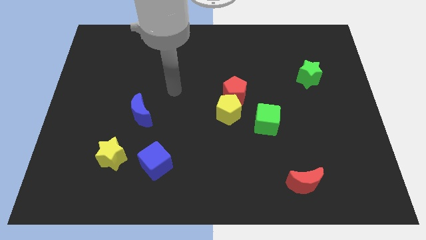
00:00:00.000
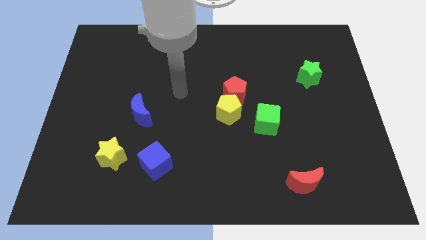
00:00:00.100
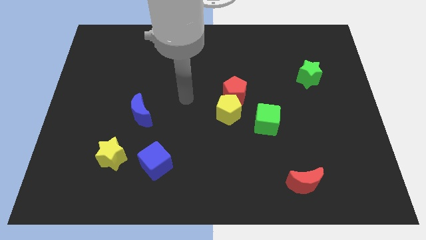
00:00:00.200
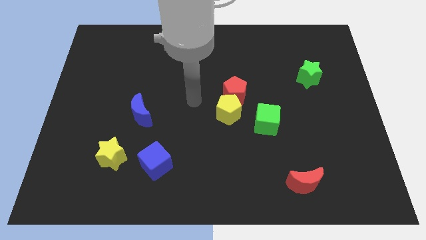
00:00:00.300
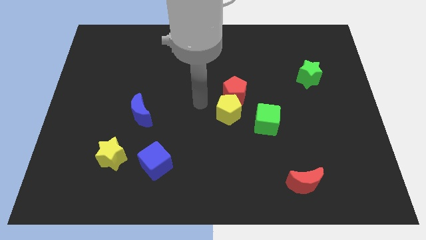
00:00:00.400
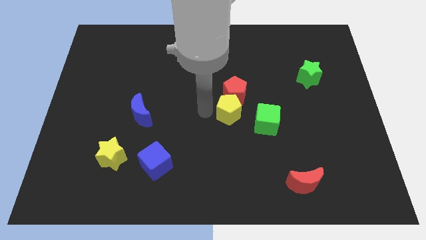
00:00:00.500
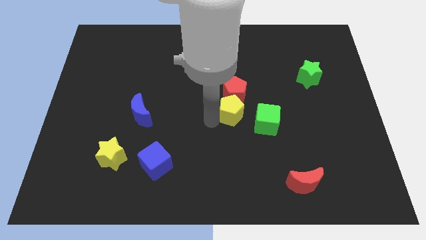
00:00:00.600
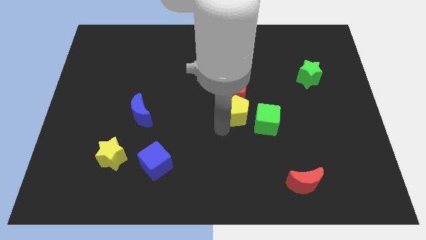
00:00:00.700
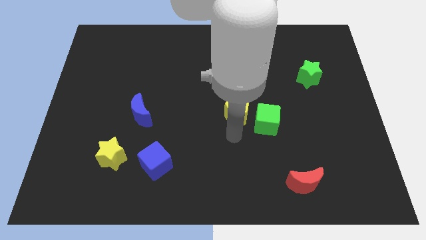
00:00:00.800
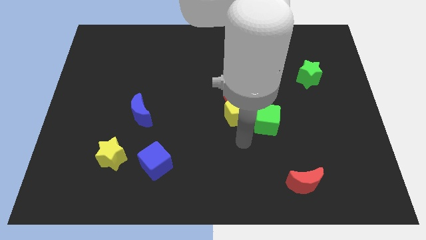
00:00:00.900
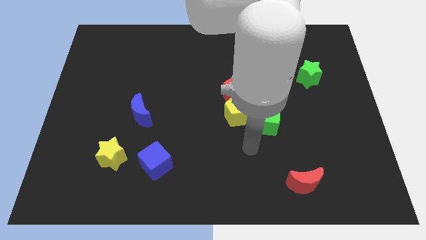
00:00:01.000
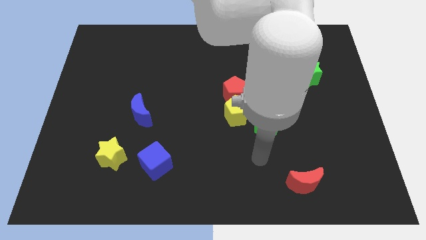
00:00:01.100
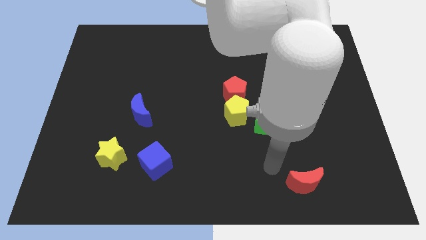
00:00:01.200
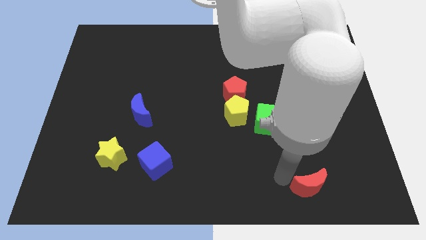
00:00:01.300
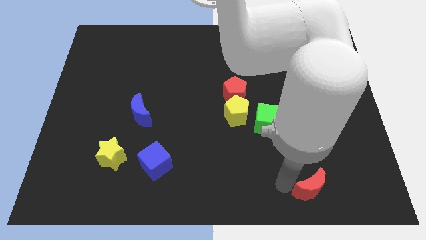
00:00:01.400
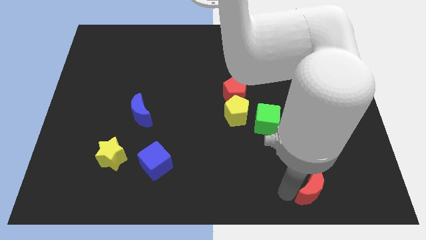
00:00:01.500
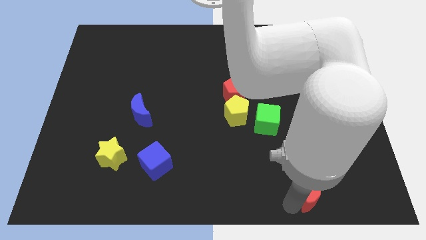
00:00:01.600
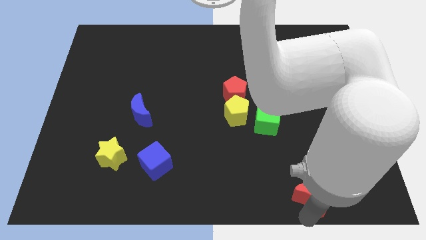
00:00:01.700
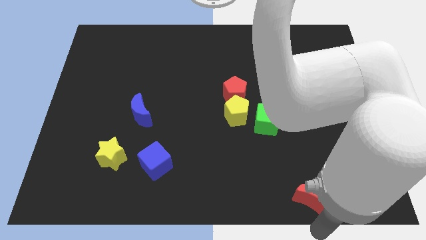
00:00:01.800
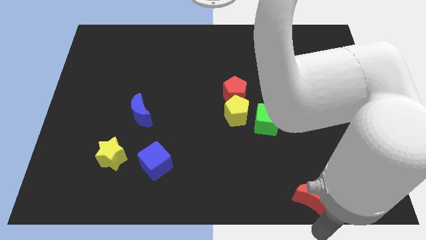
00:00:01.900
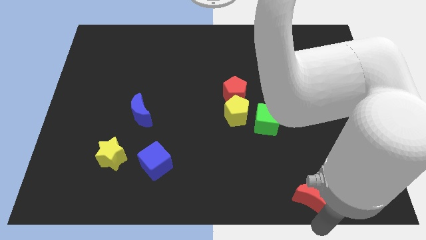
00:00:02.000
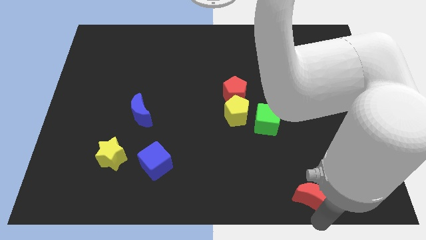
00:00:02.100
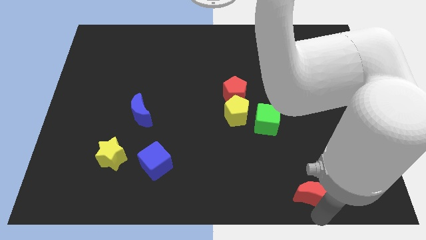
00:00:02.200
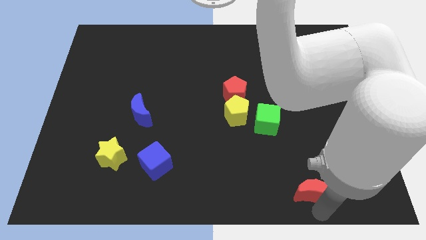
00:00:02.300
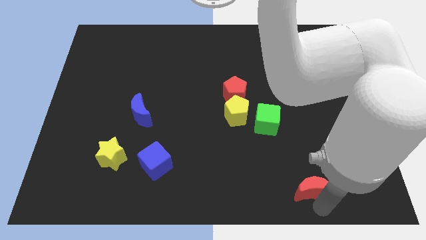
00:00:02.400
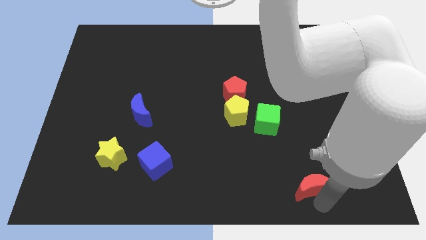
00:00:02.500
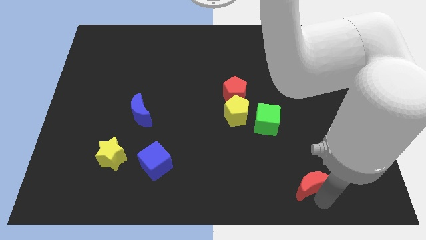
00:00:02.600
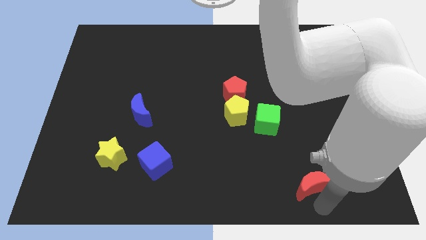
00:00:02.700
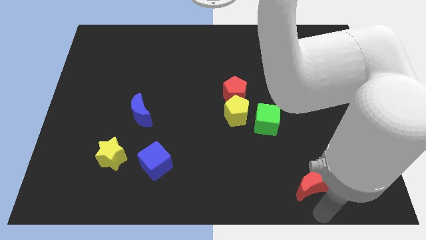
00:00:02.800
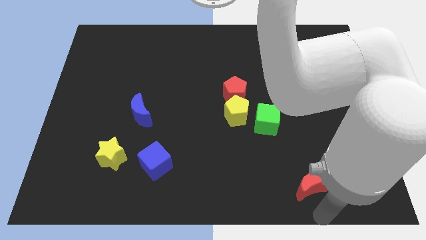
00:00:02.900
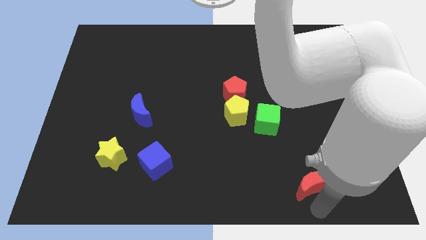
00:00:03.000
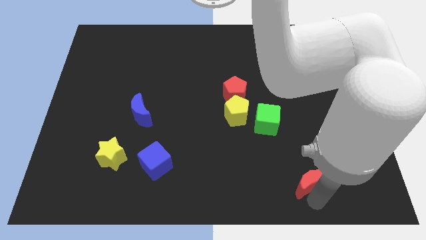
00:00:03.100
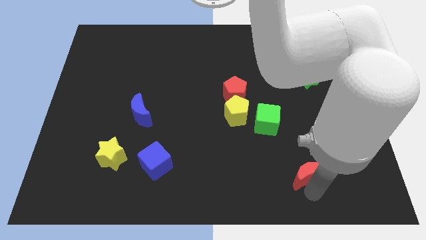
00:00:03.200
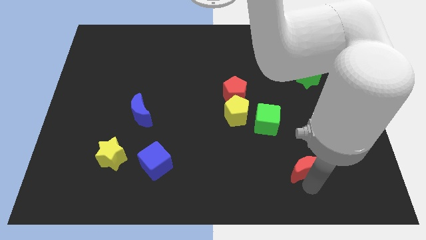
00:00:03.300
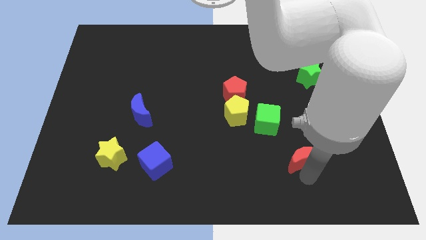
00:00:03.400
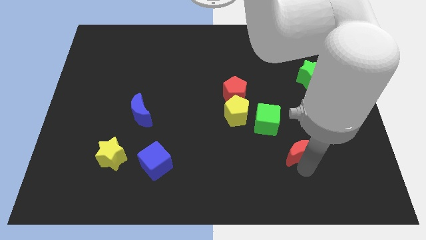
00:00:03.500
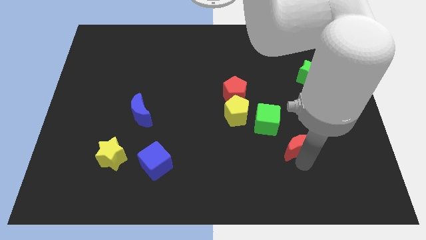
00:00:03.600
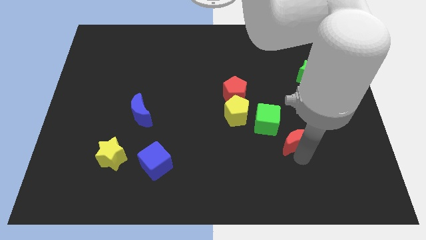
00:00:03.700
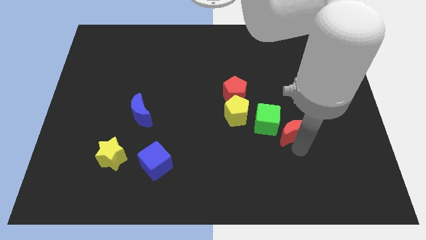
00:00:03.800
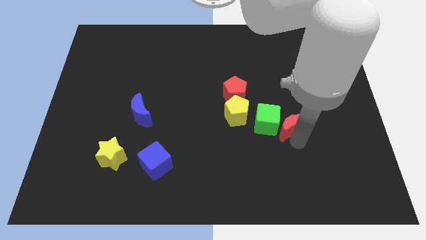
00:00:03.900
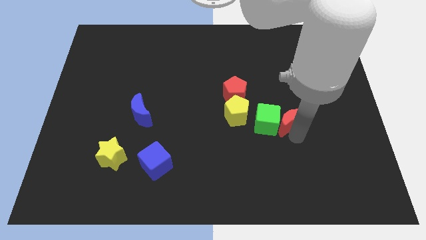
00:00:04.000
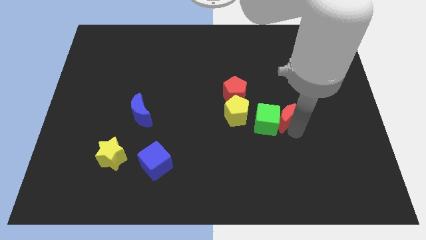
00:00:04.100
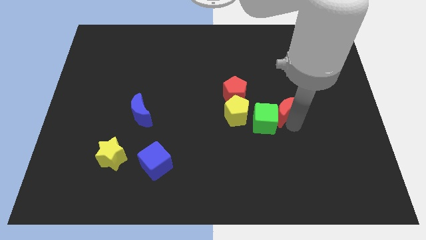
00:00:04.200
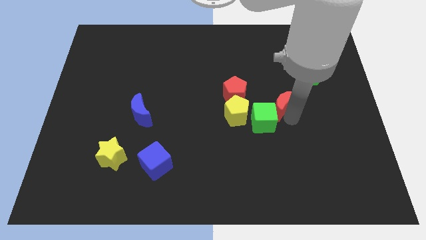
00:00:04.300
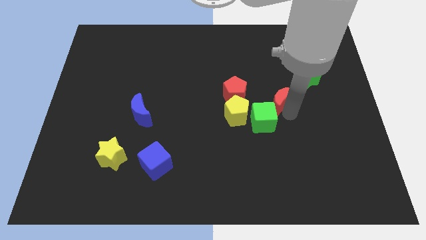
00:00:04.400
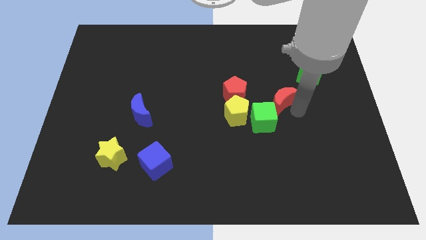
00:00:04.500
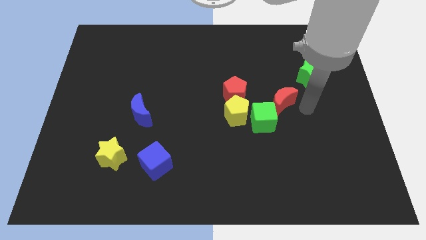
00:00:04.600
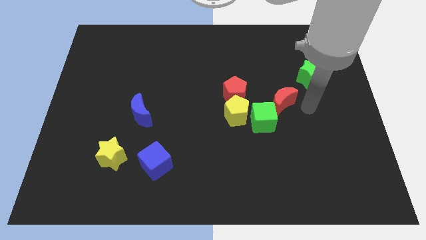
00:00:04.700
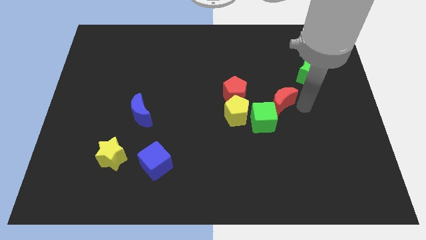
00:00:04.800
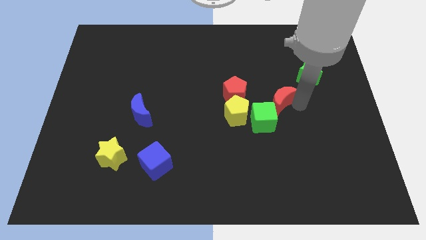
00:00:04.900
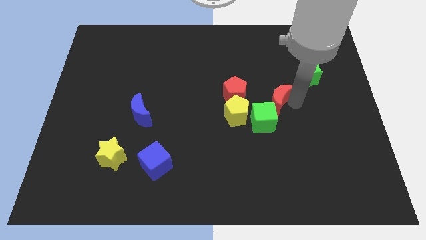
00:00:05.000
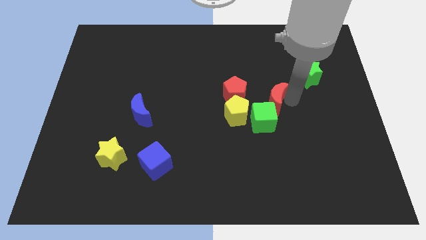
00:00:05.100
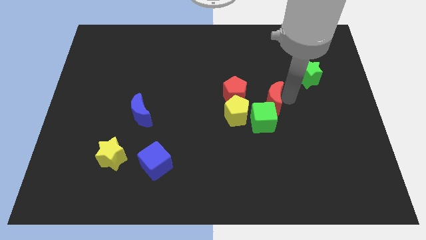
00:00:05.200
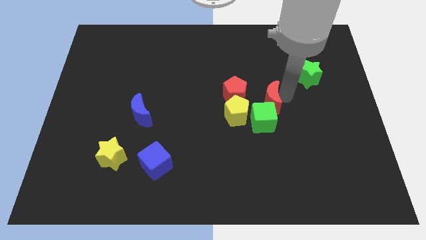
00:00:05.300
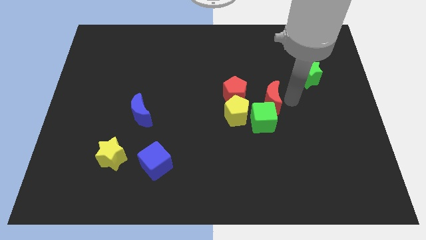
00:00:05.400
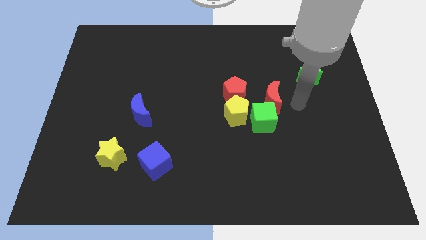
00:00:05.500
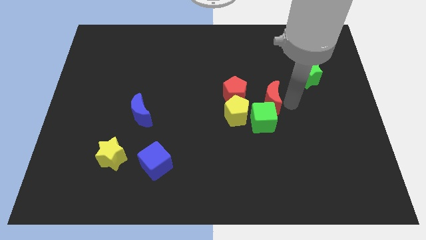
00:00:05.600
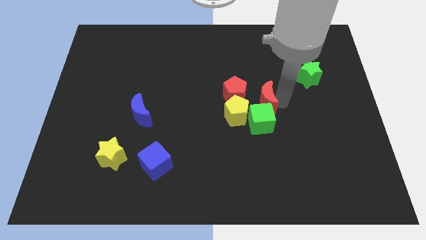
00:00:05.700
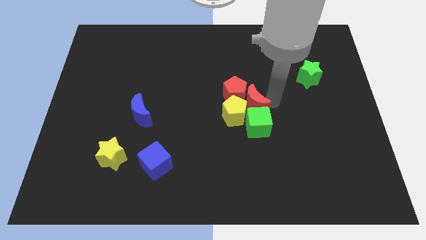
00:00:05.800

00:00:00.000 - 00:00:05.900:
push the red moon close to the red pentagon
